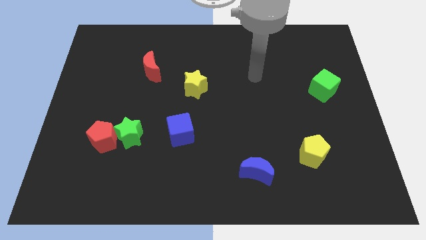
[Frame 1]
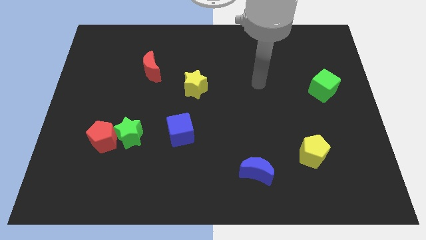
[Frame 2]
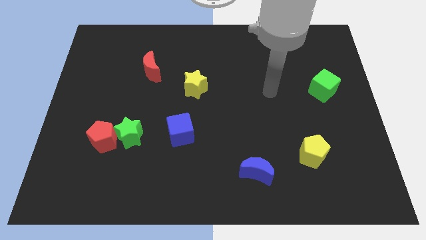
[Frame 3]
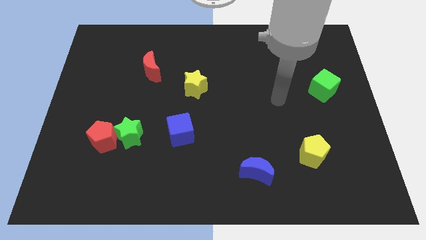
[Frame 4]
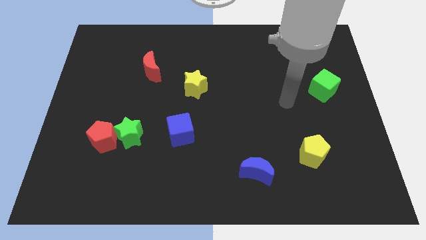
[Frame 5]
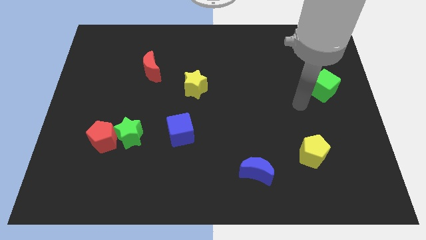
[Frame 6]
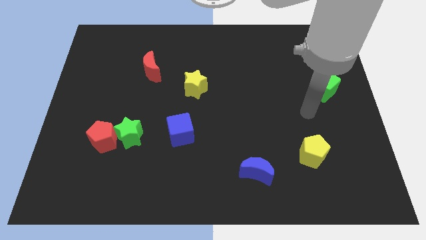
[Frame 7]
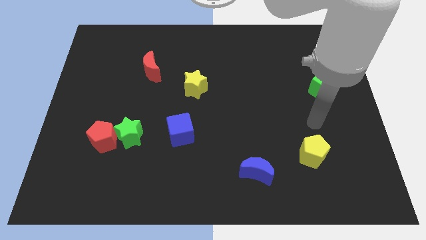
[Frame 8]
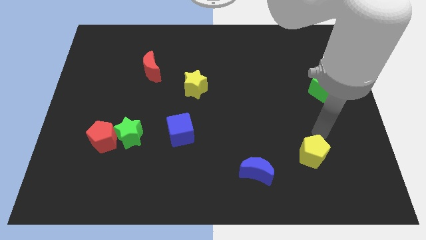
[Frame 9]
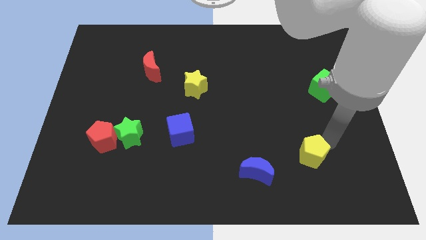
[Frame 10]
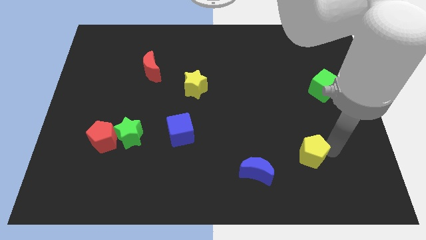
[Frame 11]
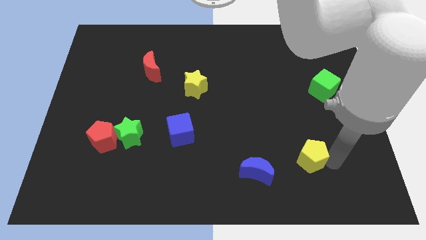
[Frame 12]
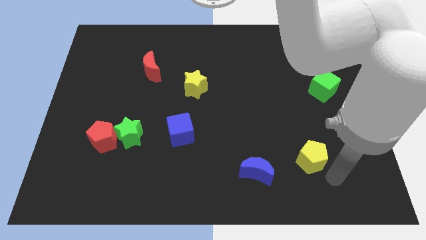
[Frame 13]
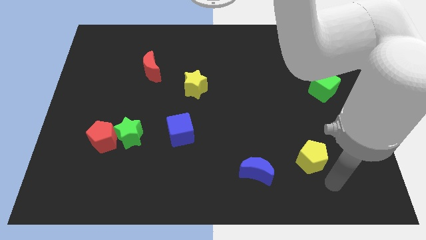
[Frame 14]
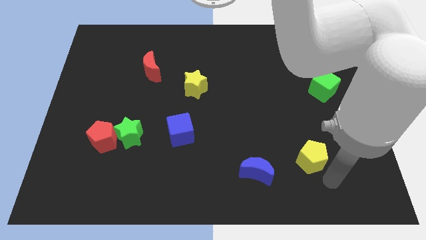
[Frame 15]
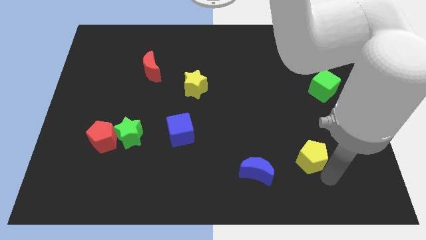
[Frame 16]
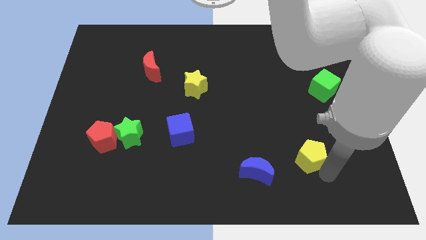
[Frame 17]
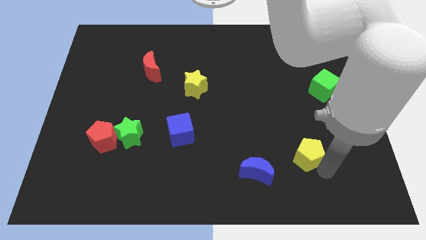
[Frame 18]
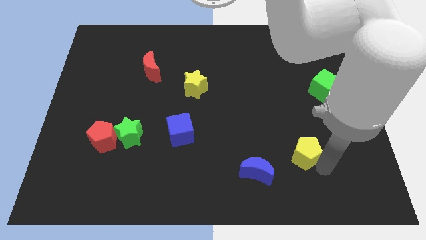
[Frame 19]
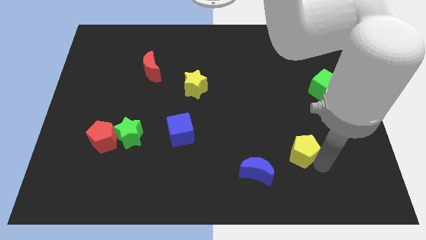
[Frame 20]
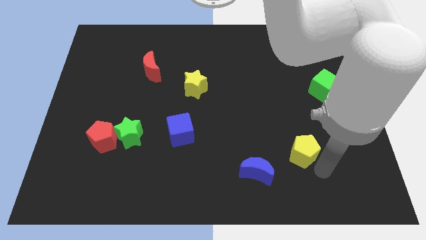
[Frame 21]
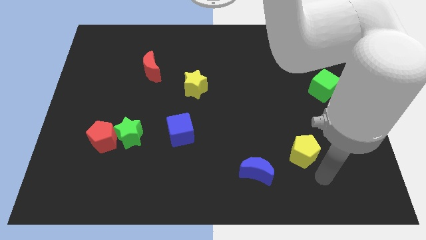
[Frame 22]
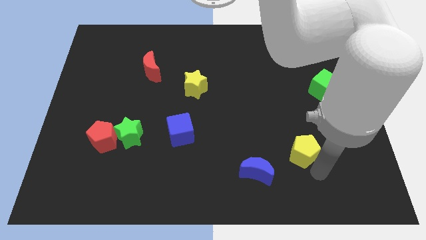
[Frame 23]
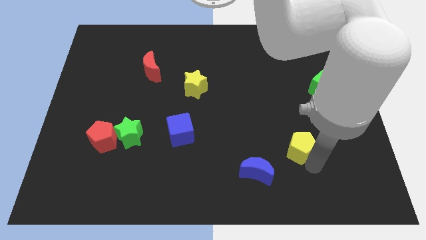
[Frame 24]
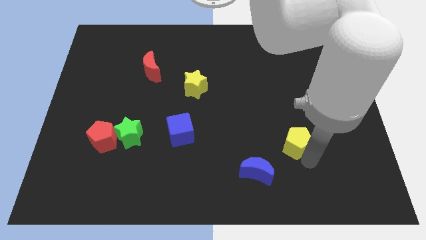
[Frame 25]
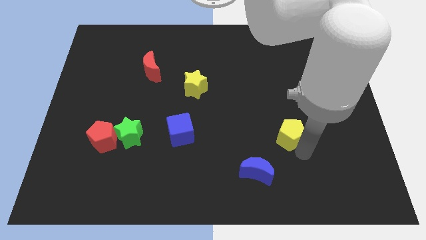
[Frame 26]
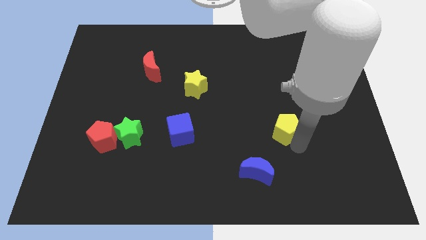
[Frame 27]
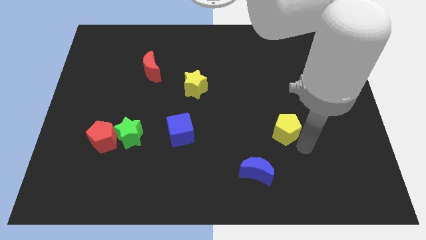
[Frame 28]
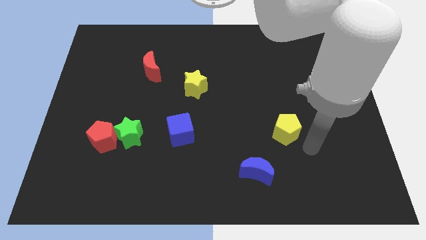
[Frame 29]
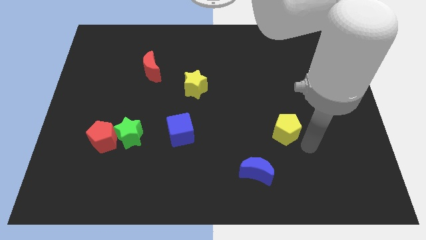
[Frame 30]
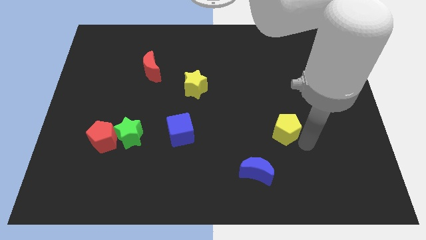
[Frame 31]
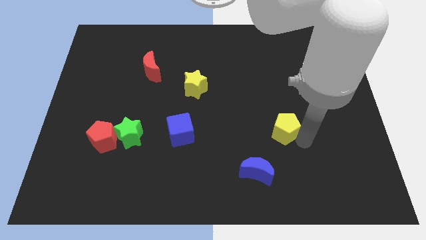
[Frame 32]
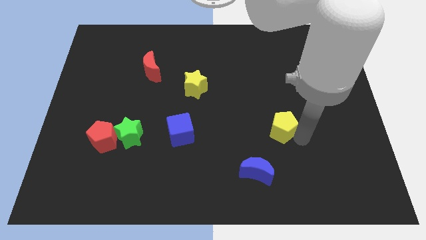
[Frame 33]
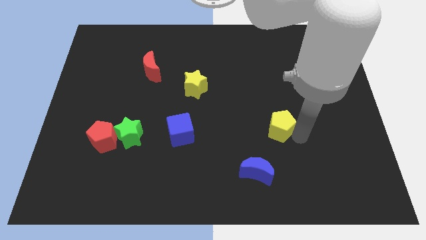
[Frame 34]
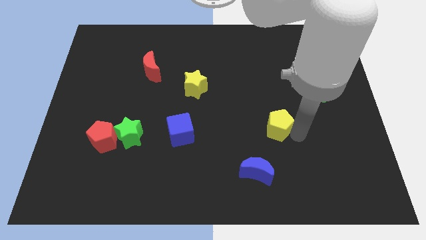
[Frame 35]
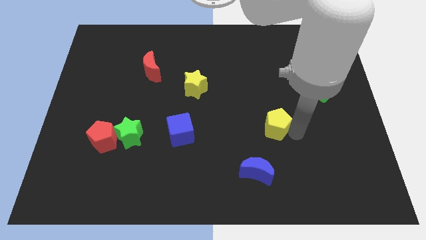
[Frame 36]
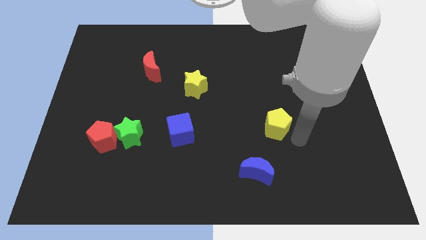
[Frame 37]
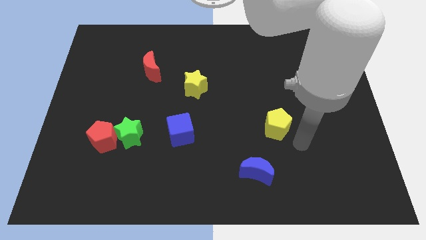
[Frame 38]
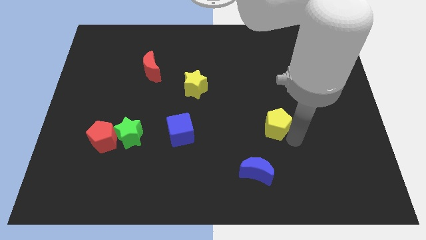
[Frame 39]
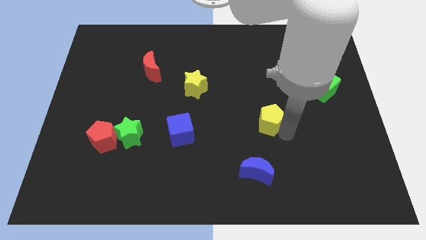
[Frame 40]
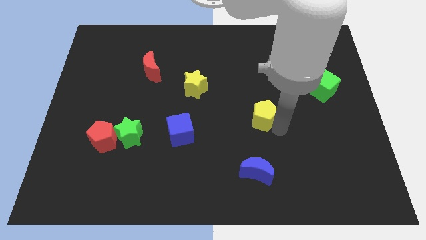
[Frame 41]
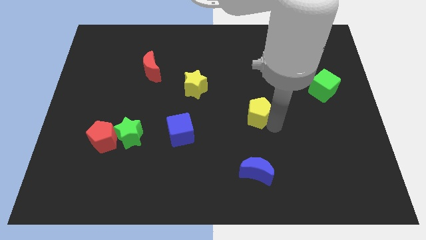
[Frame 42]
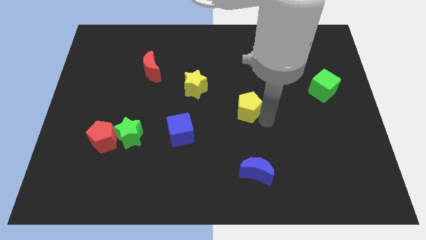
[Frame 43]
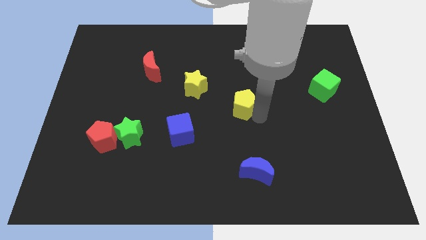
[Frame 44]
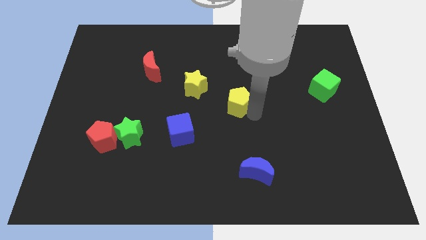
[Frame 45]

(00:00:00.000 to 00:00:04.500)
move the yellow pentagon upwards and to the left

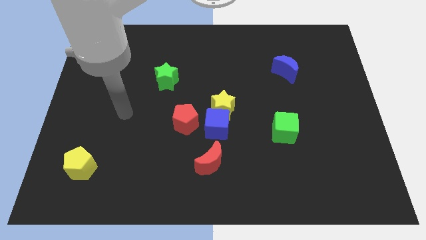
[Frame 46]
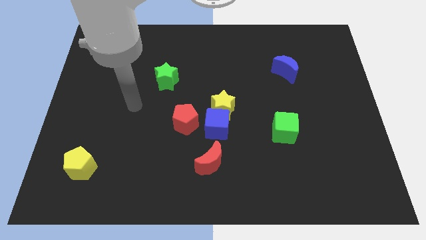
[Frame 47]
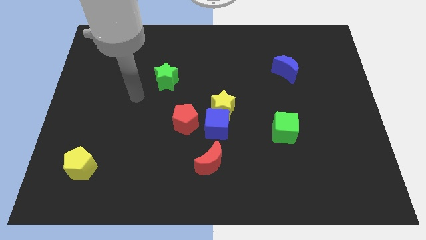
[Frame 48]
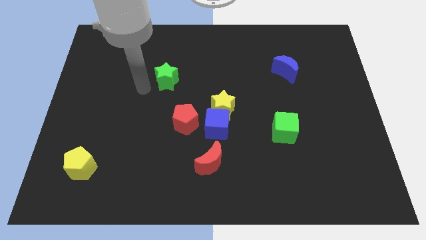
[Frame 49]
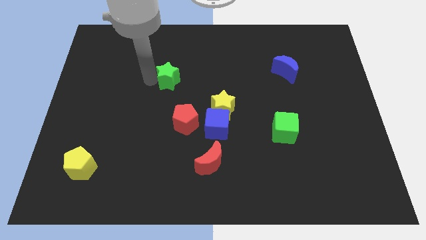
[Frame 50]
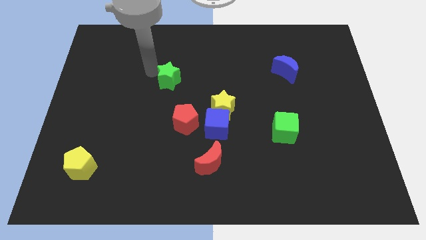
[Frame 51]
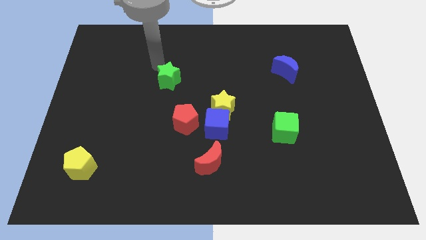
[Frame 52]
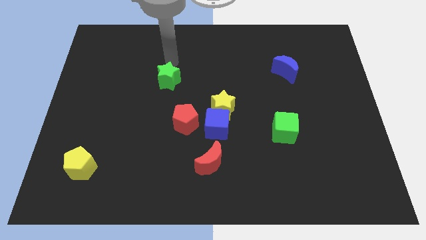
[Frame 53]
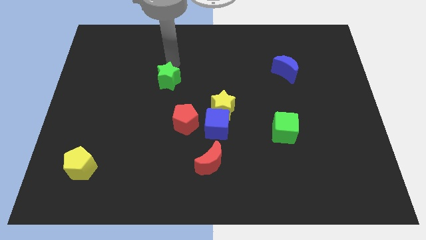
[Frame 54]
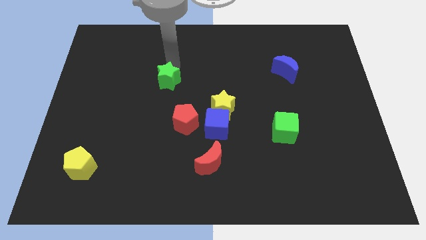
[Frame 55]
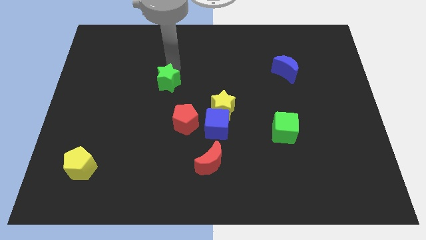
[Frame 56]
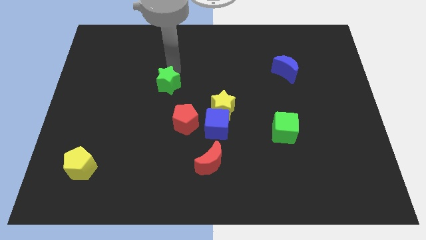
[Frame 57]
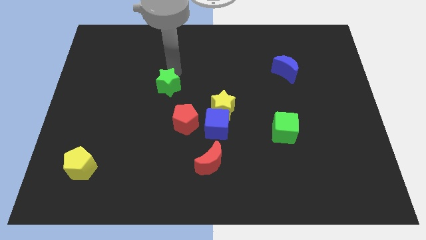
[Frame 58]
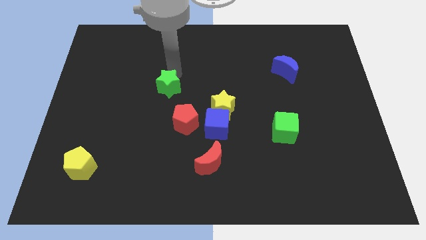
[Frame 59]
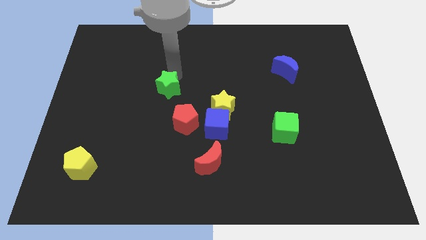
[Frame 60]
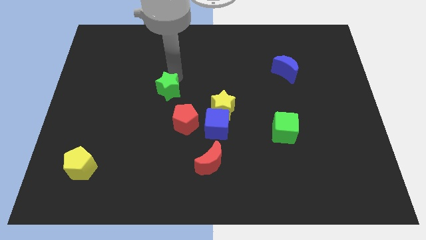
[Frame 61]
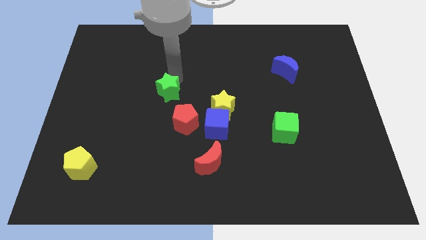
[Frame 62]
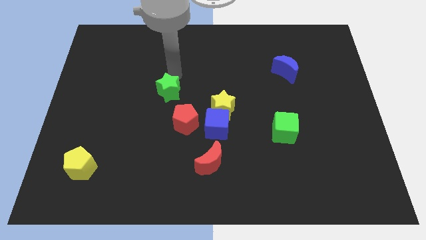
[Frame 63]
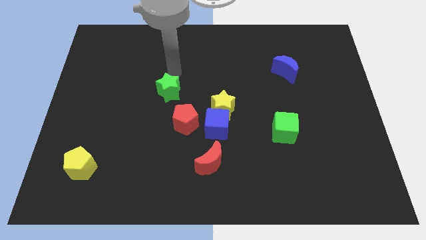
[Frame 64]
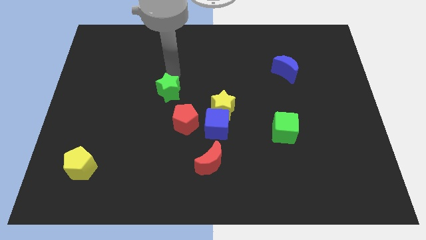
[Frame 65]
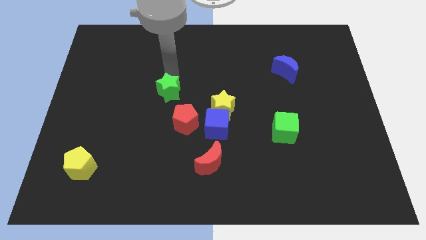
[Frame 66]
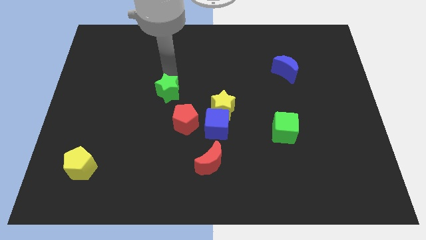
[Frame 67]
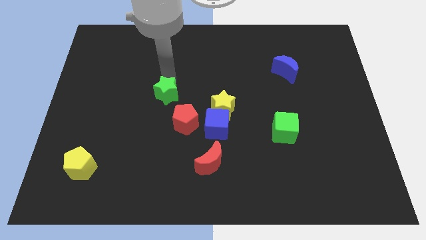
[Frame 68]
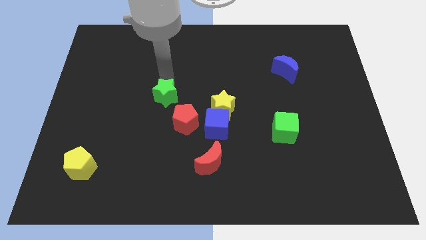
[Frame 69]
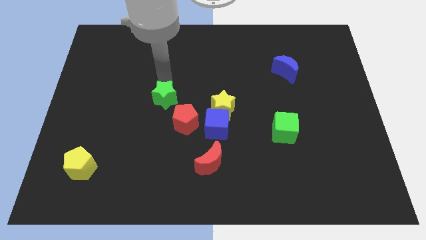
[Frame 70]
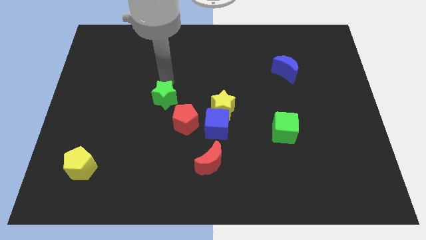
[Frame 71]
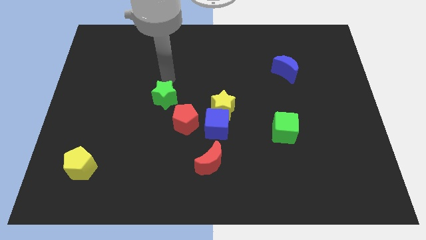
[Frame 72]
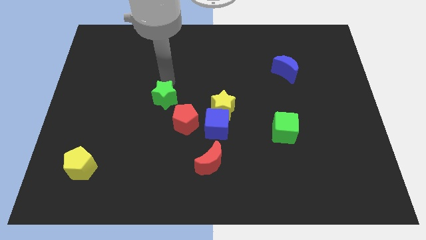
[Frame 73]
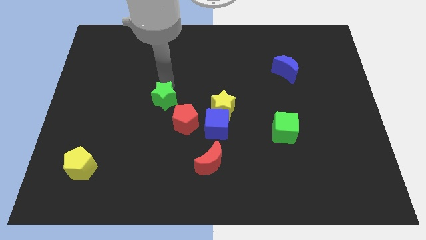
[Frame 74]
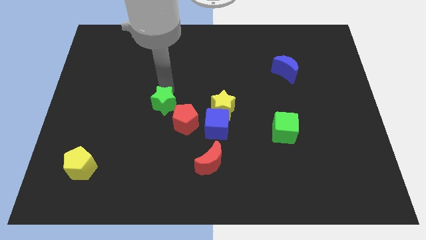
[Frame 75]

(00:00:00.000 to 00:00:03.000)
push the green star somewhat downwards

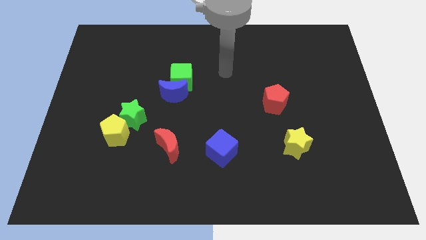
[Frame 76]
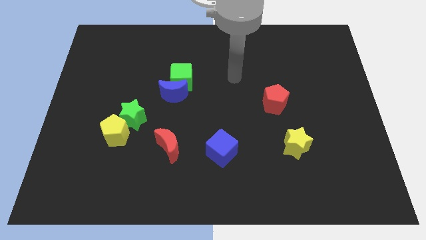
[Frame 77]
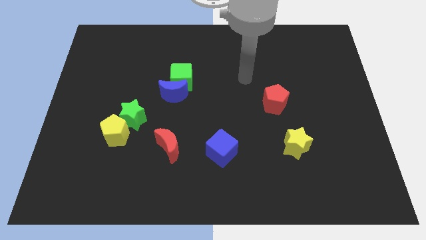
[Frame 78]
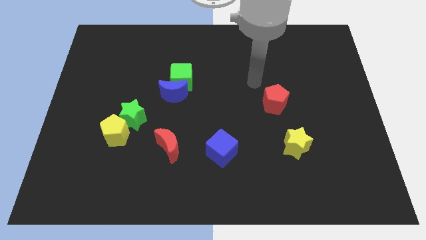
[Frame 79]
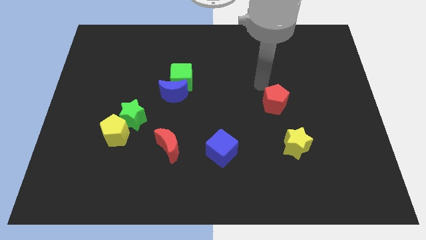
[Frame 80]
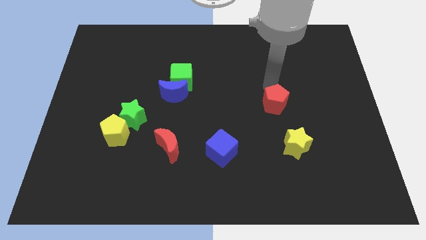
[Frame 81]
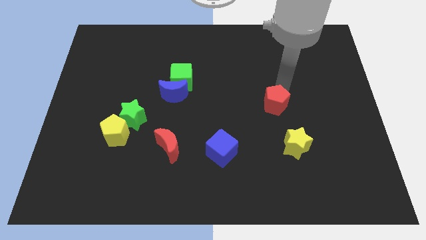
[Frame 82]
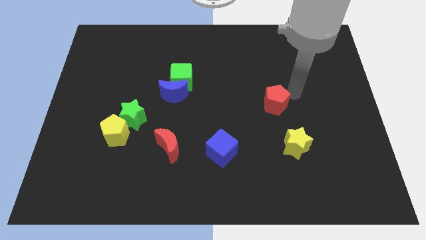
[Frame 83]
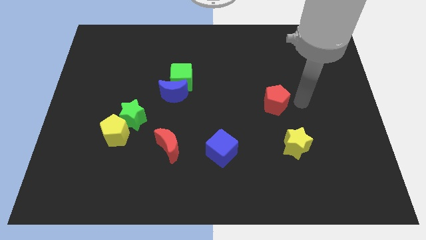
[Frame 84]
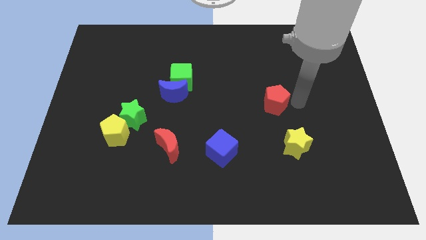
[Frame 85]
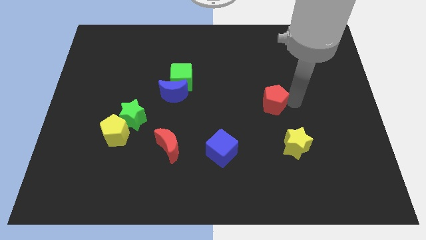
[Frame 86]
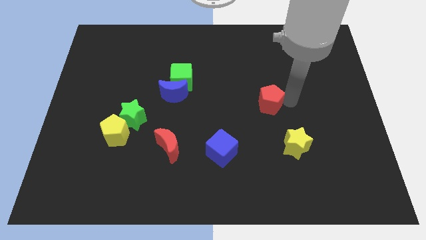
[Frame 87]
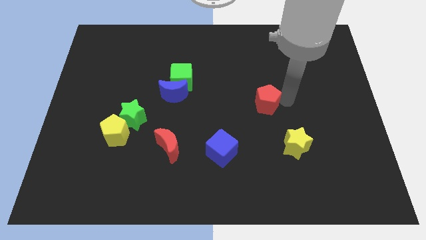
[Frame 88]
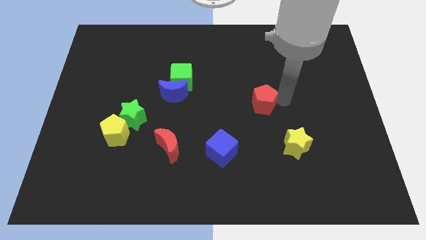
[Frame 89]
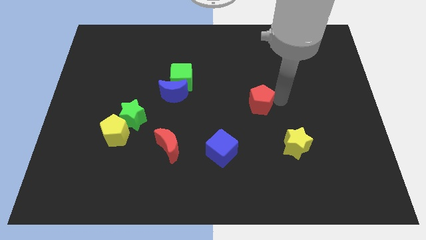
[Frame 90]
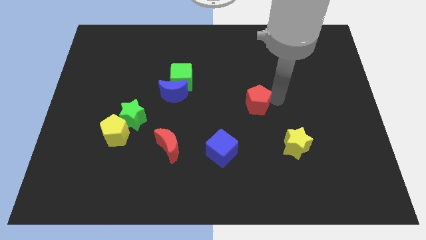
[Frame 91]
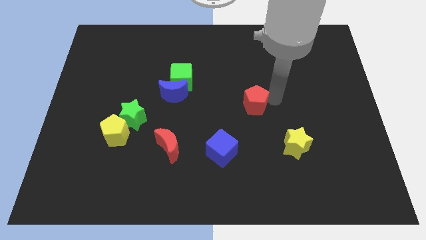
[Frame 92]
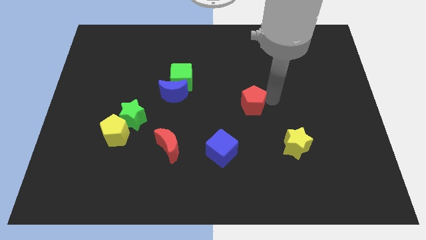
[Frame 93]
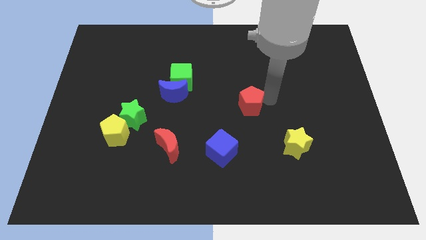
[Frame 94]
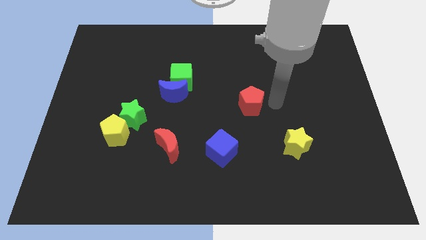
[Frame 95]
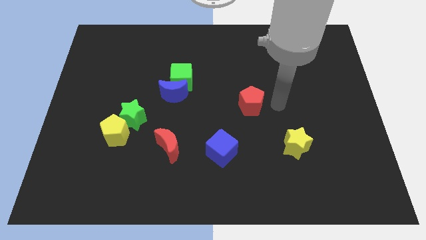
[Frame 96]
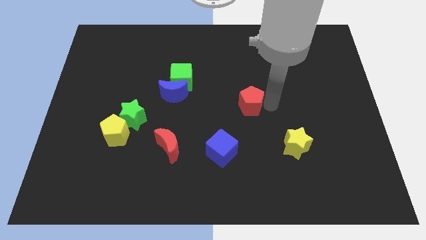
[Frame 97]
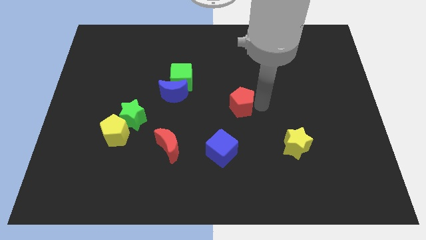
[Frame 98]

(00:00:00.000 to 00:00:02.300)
move the red pentagon to the left somewhat
